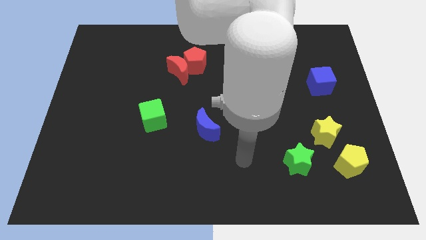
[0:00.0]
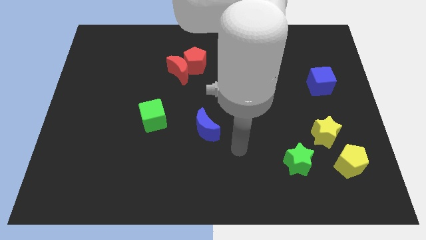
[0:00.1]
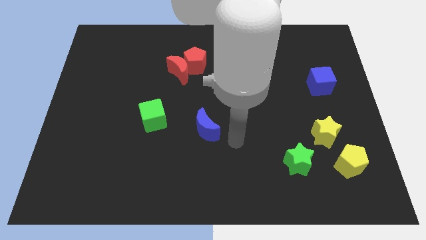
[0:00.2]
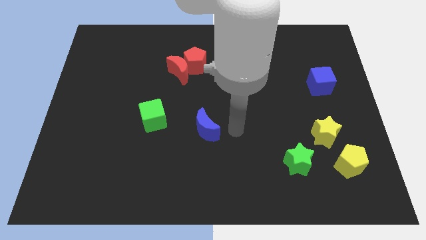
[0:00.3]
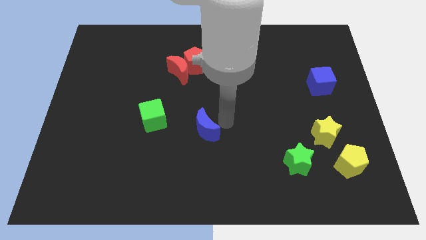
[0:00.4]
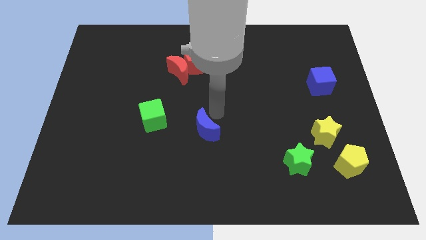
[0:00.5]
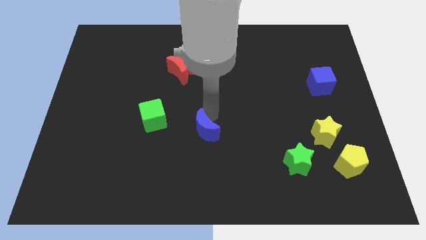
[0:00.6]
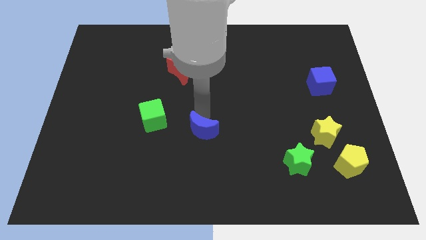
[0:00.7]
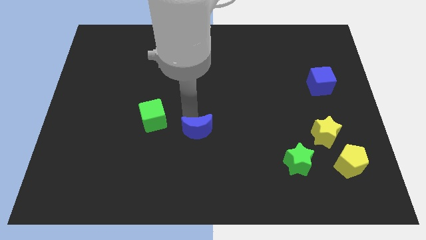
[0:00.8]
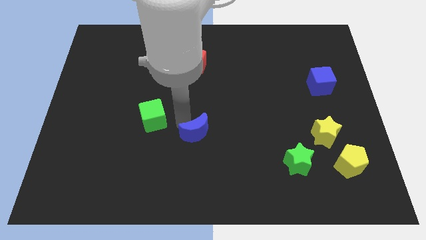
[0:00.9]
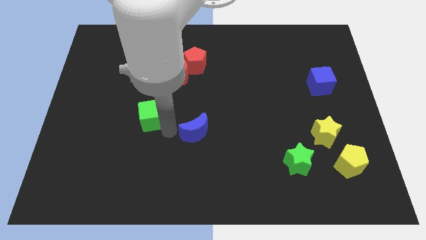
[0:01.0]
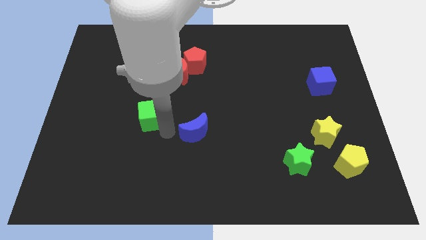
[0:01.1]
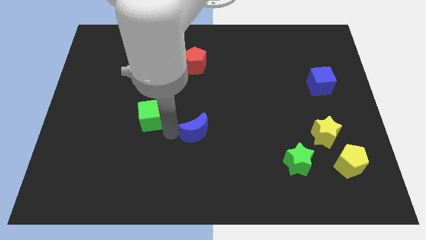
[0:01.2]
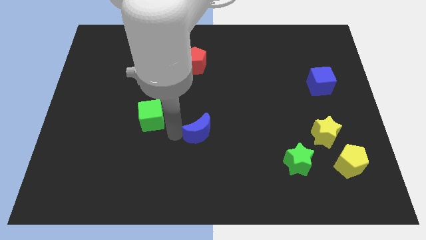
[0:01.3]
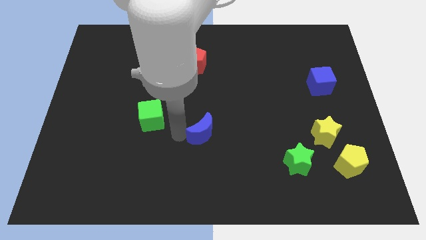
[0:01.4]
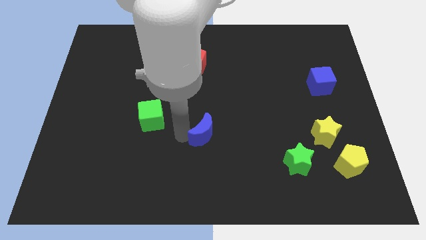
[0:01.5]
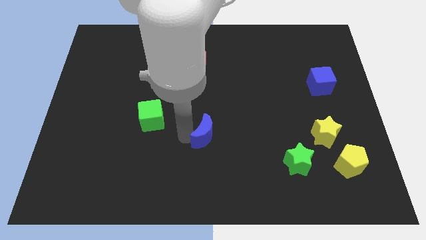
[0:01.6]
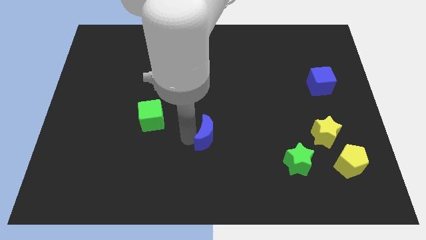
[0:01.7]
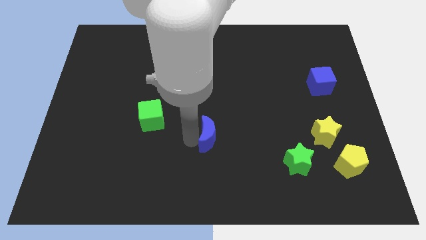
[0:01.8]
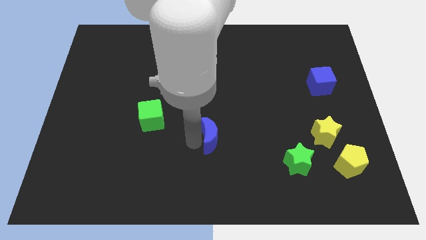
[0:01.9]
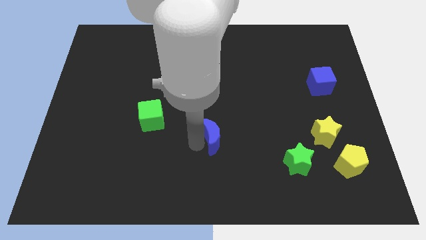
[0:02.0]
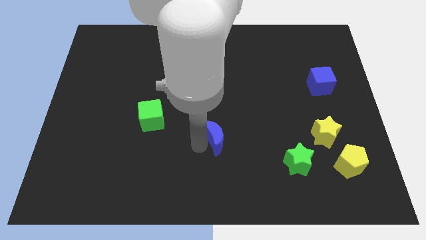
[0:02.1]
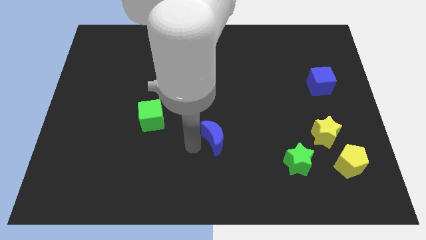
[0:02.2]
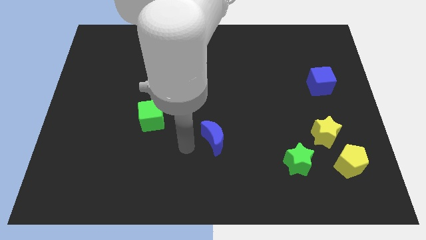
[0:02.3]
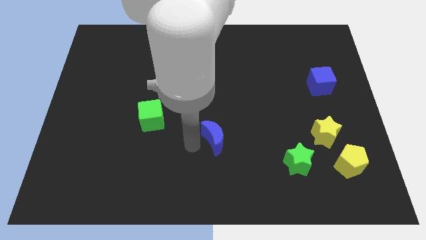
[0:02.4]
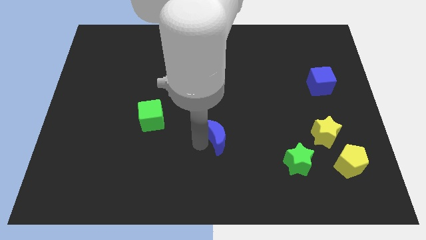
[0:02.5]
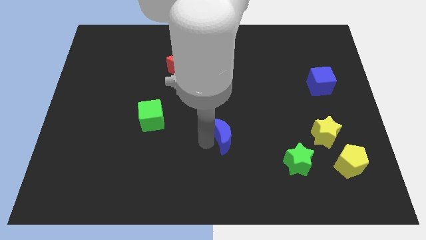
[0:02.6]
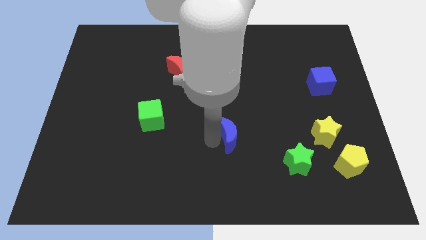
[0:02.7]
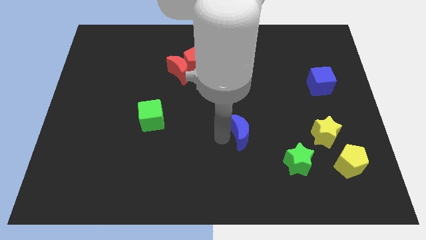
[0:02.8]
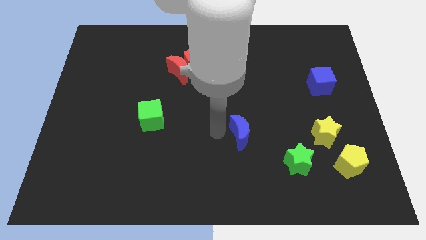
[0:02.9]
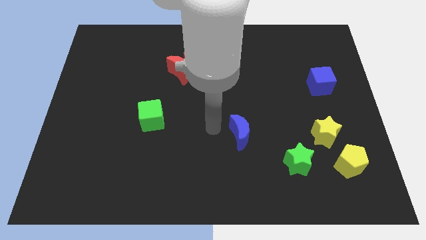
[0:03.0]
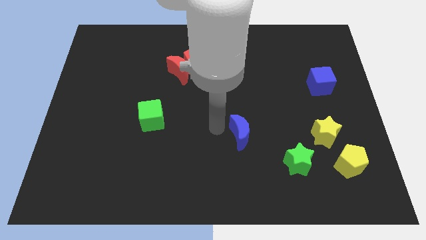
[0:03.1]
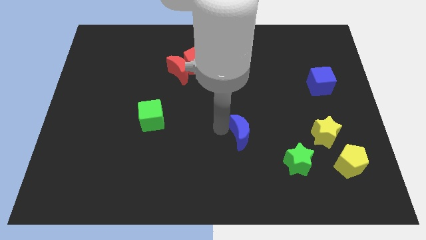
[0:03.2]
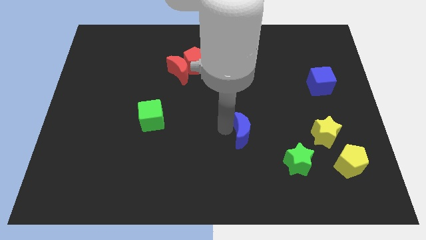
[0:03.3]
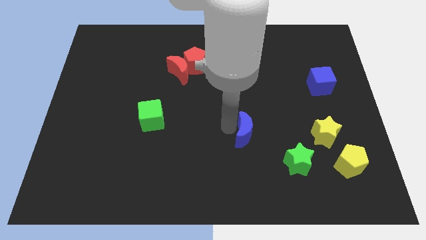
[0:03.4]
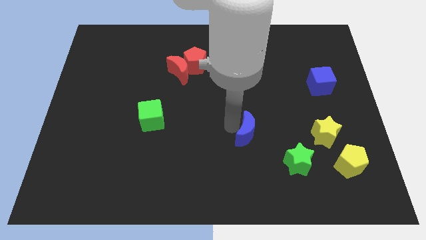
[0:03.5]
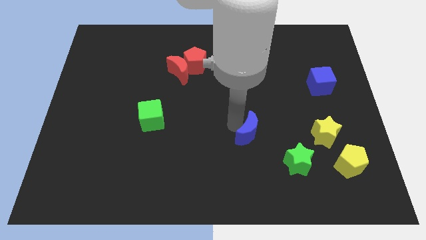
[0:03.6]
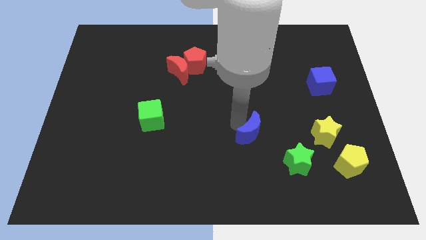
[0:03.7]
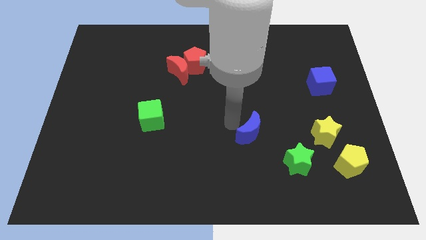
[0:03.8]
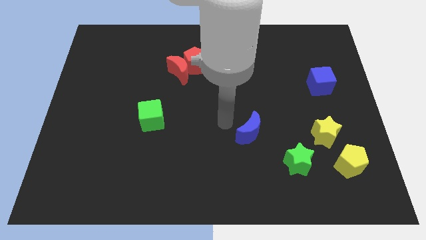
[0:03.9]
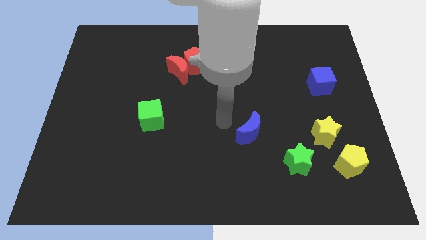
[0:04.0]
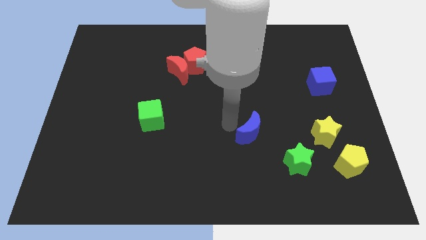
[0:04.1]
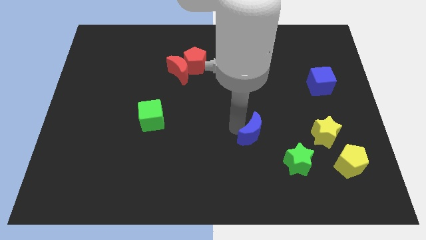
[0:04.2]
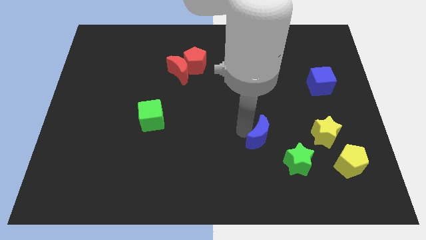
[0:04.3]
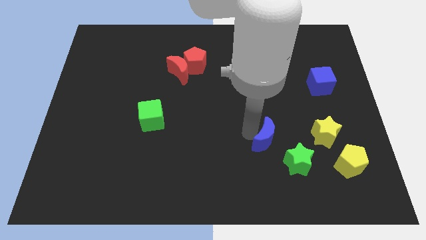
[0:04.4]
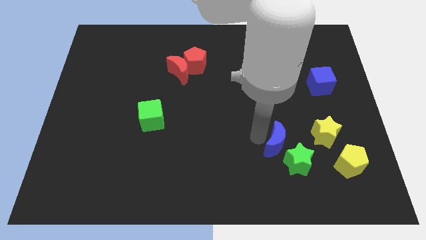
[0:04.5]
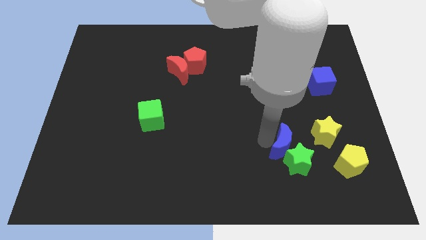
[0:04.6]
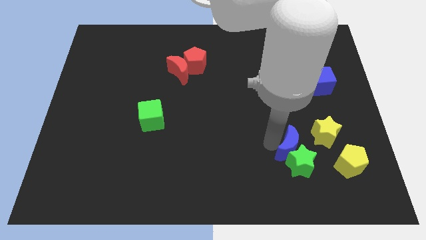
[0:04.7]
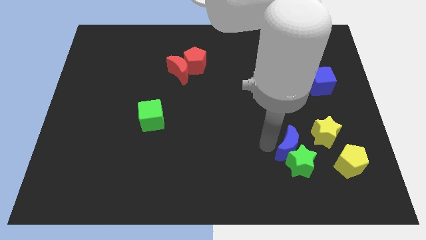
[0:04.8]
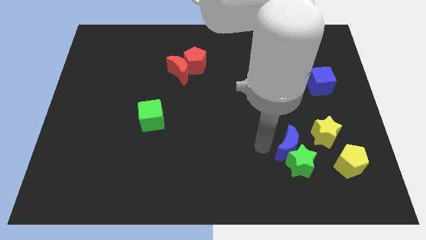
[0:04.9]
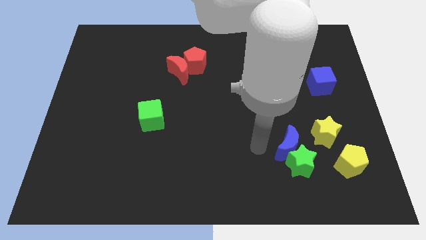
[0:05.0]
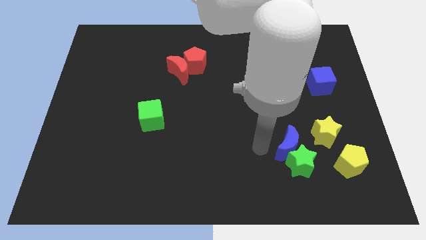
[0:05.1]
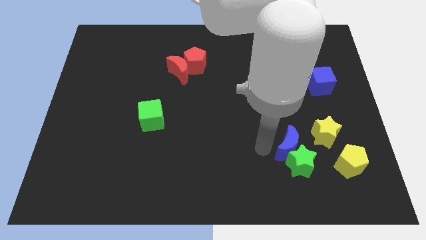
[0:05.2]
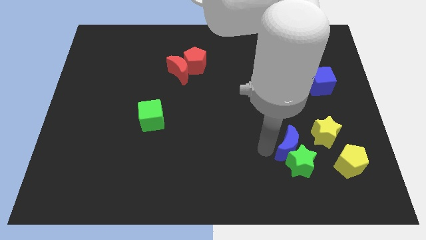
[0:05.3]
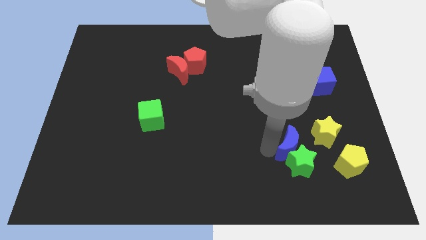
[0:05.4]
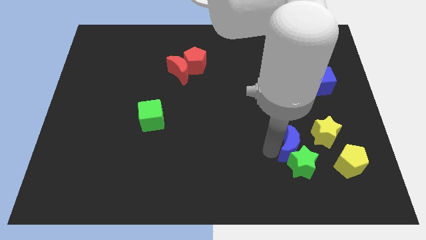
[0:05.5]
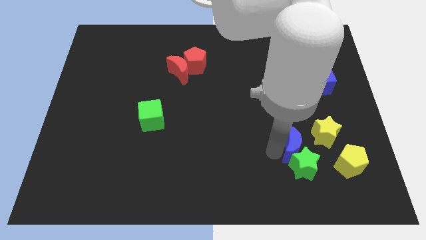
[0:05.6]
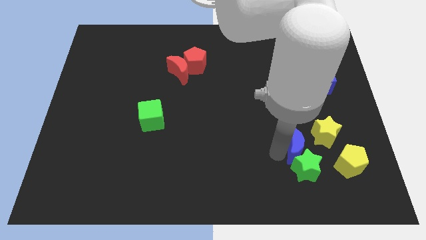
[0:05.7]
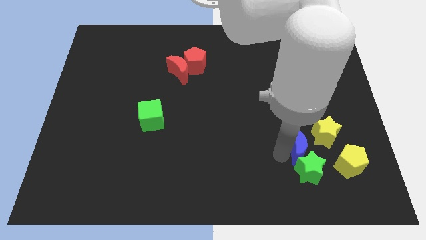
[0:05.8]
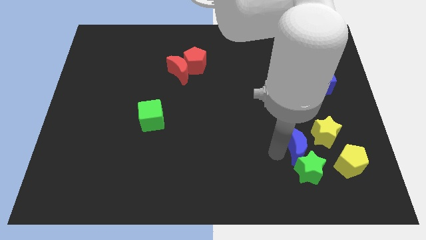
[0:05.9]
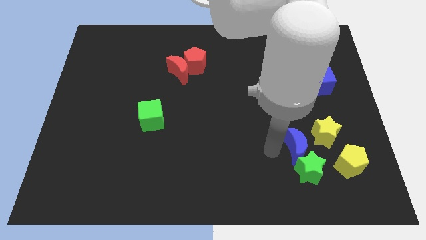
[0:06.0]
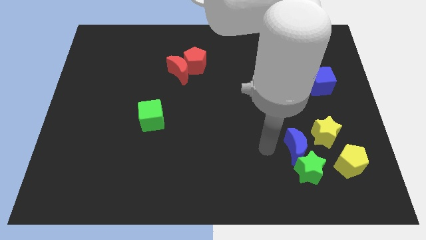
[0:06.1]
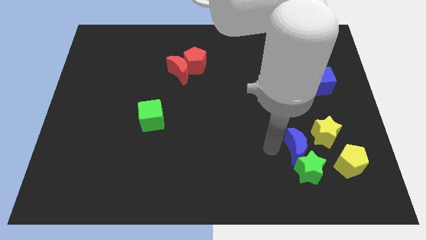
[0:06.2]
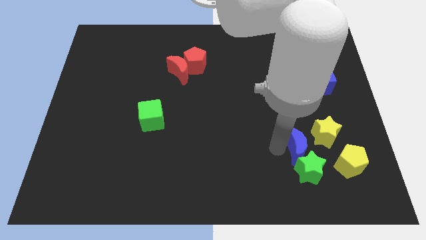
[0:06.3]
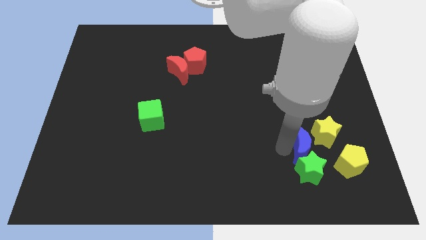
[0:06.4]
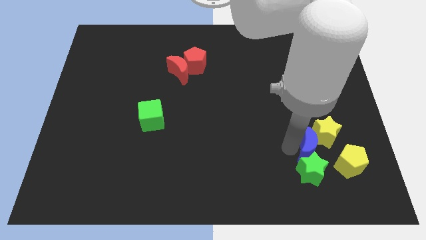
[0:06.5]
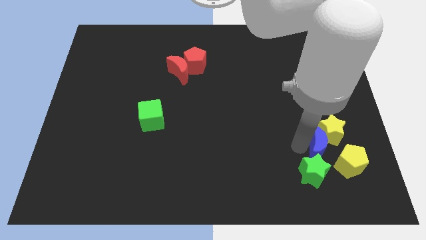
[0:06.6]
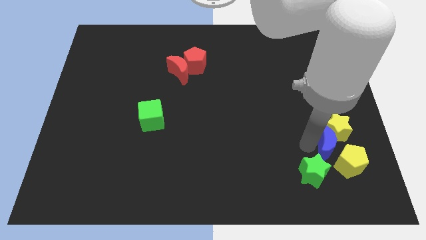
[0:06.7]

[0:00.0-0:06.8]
move the blue moon towards the yellow pentagon

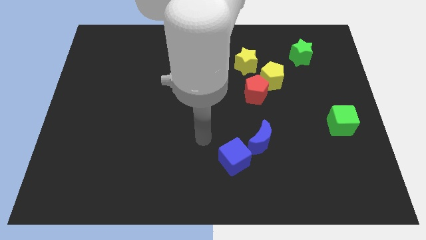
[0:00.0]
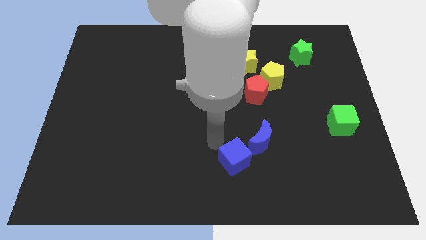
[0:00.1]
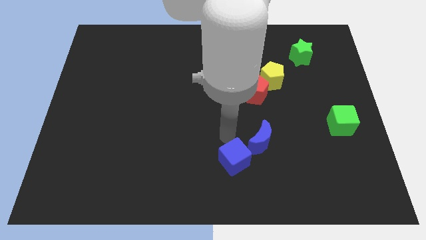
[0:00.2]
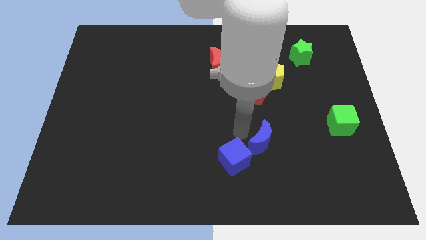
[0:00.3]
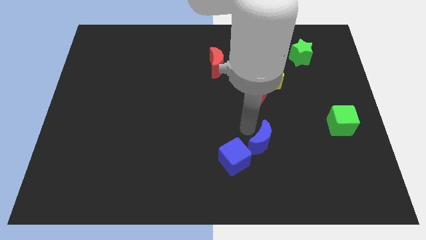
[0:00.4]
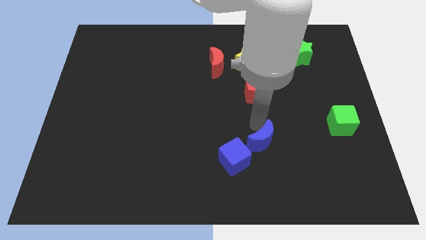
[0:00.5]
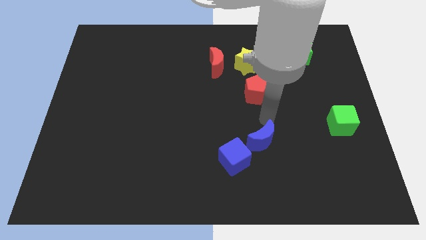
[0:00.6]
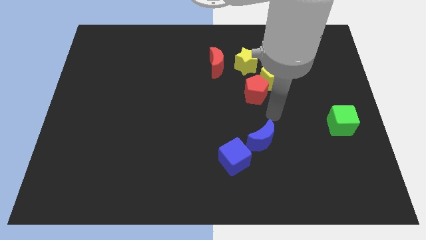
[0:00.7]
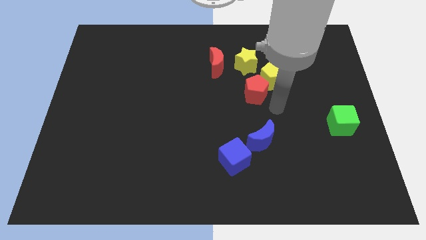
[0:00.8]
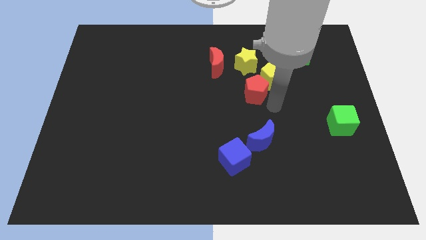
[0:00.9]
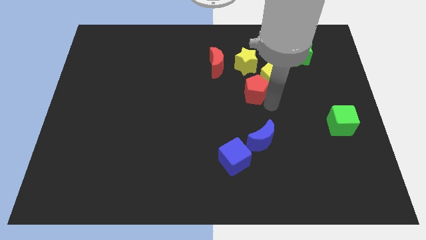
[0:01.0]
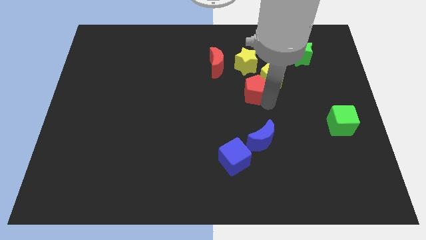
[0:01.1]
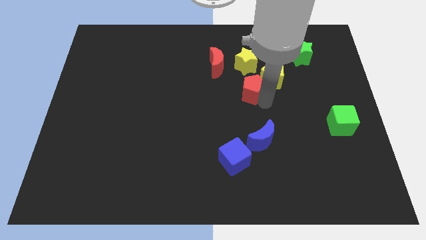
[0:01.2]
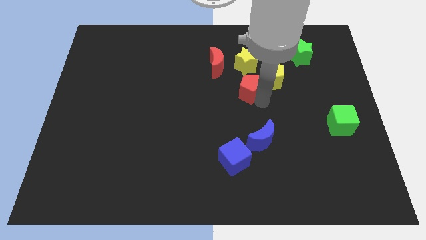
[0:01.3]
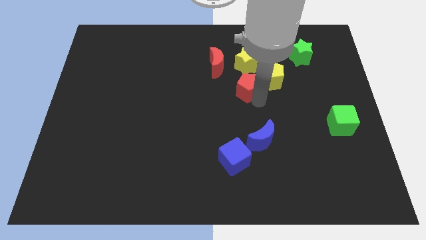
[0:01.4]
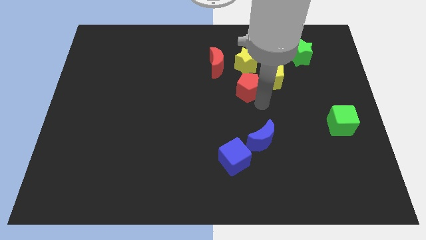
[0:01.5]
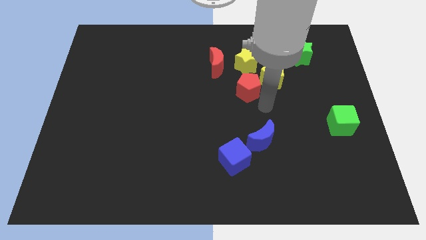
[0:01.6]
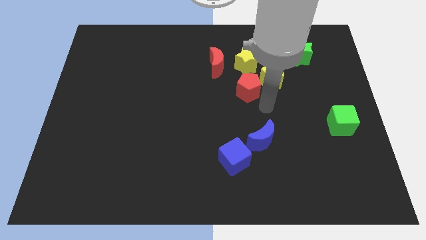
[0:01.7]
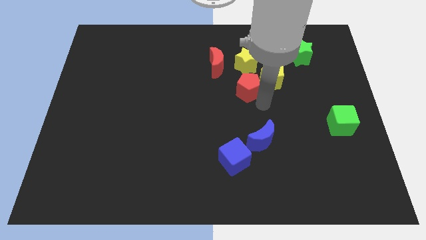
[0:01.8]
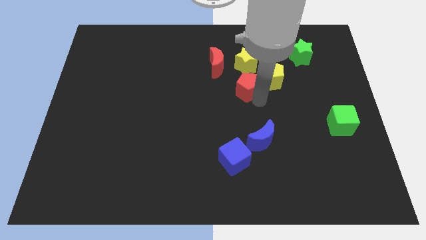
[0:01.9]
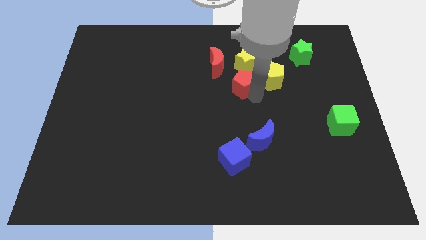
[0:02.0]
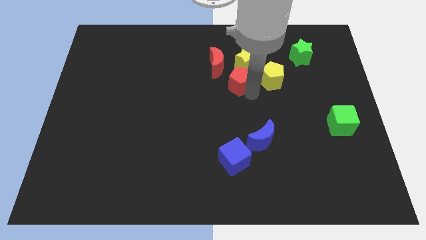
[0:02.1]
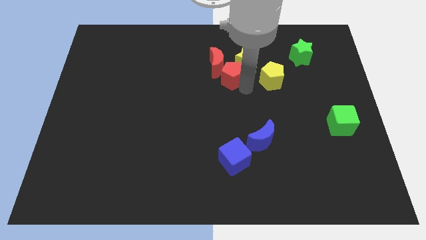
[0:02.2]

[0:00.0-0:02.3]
put the red pentagon close to the red moon
